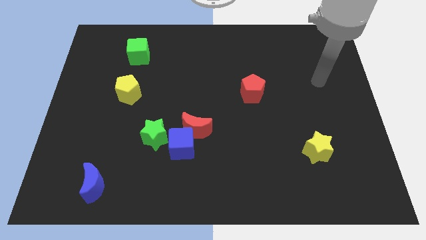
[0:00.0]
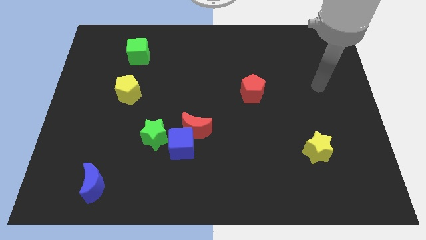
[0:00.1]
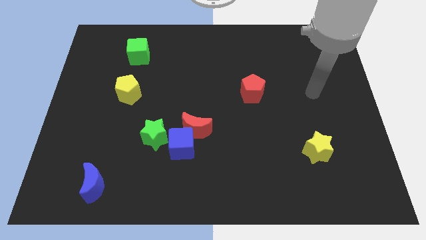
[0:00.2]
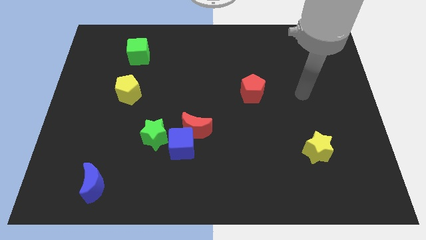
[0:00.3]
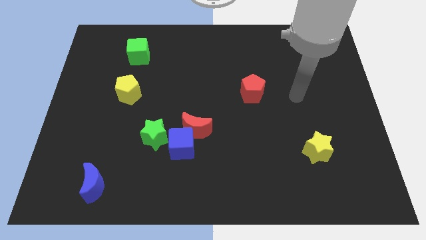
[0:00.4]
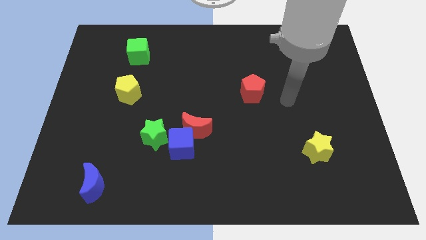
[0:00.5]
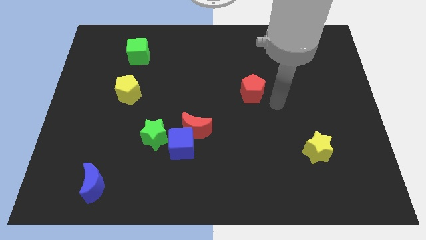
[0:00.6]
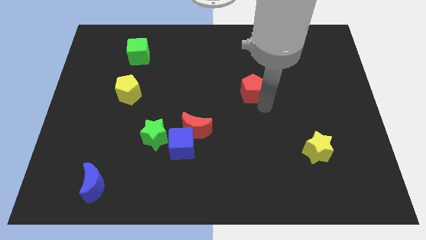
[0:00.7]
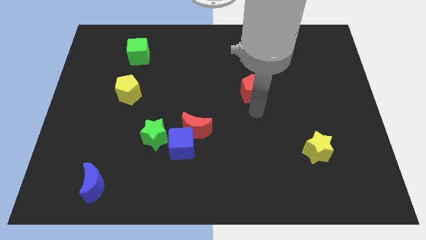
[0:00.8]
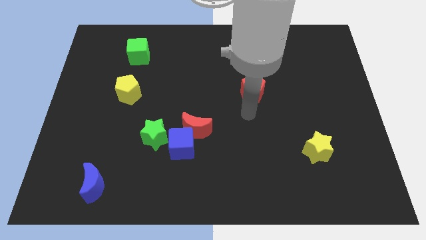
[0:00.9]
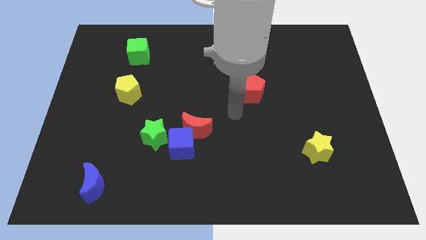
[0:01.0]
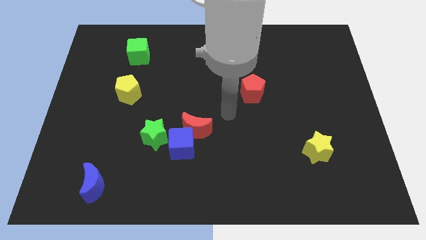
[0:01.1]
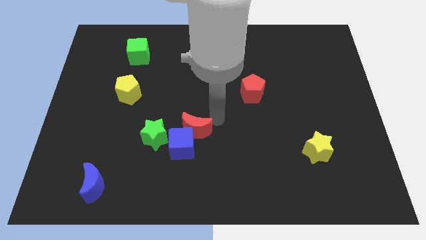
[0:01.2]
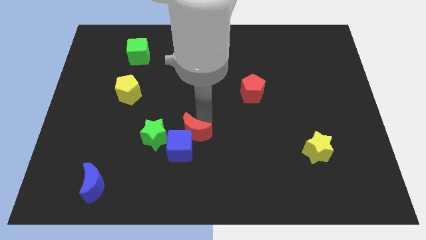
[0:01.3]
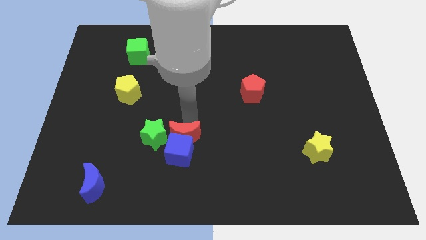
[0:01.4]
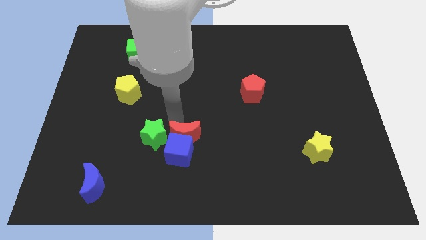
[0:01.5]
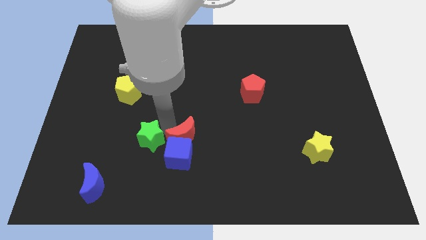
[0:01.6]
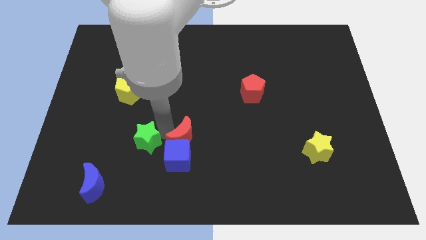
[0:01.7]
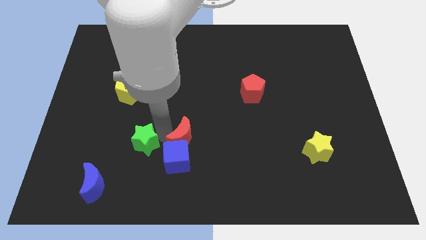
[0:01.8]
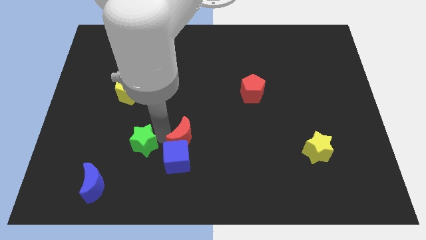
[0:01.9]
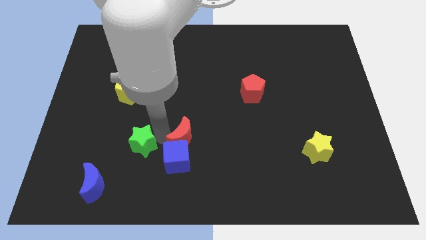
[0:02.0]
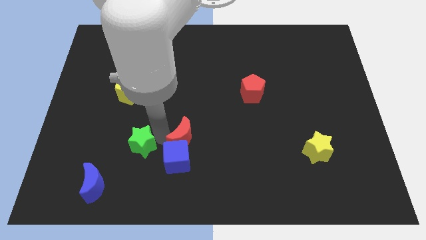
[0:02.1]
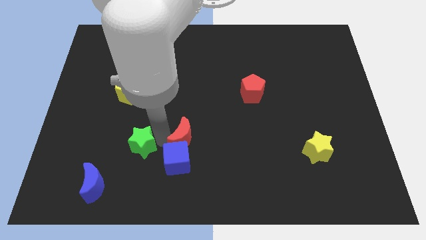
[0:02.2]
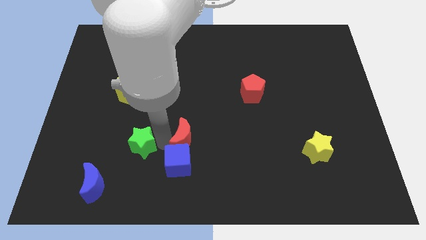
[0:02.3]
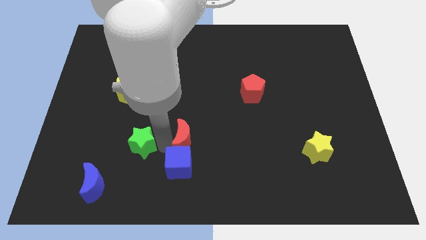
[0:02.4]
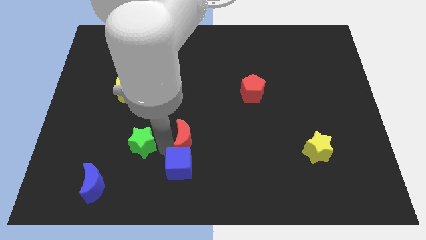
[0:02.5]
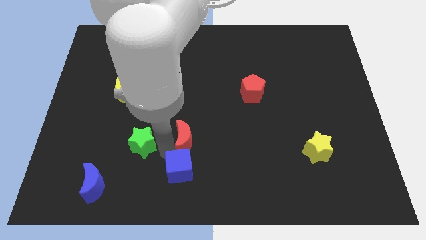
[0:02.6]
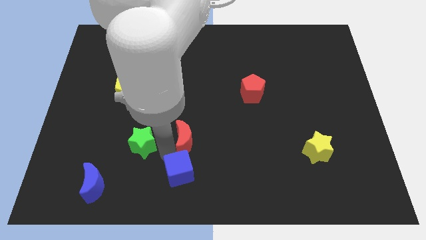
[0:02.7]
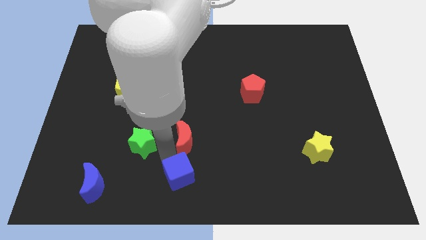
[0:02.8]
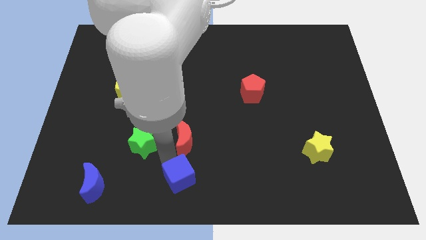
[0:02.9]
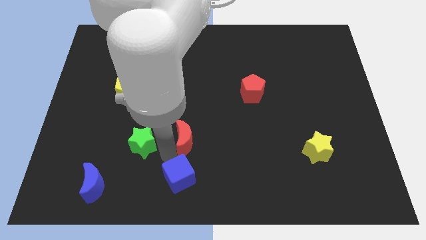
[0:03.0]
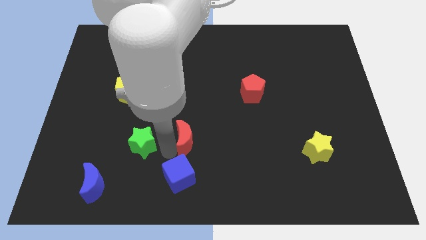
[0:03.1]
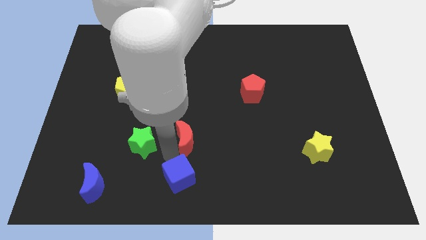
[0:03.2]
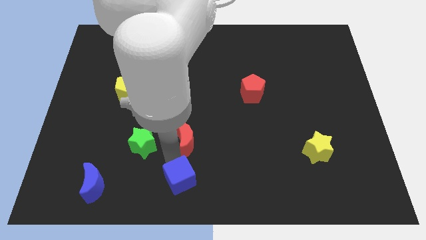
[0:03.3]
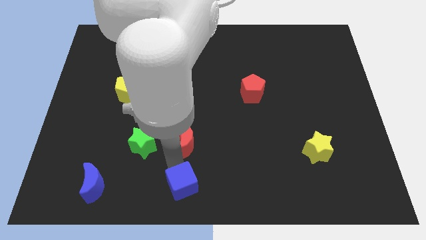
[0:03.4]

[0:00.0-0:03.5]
move the blue cube away from the red moon and green star

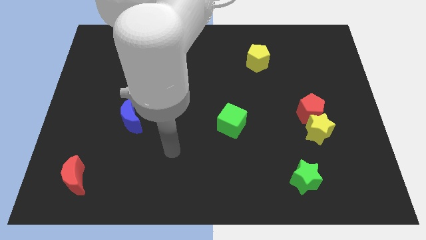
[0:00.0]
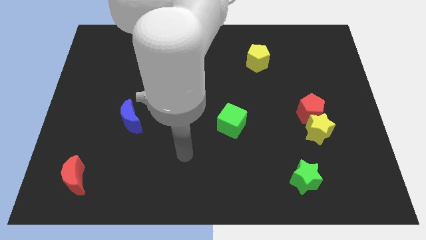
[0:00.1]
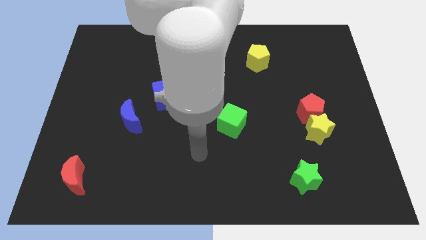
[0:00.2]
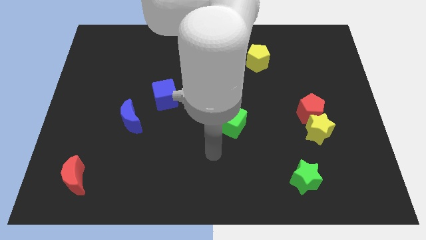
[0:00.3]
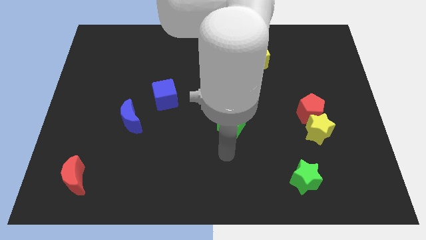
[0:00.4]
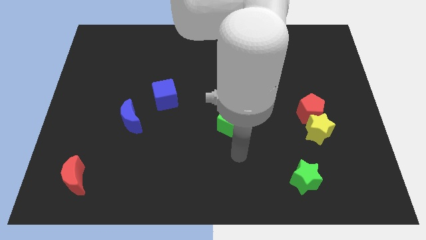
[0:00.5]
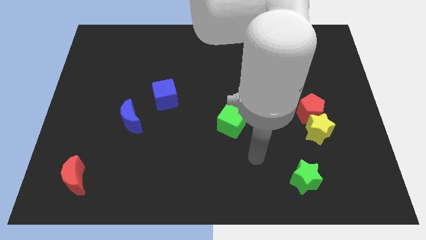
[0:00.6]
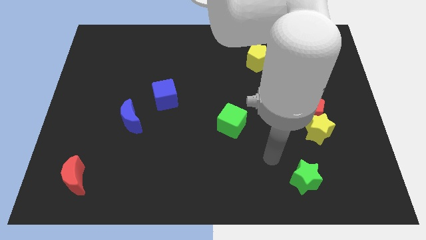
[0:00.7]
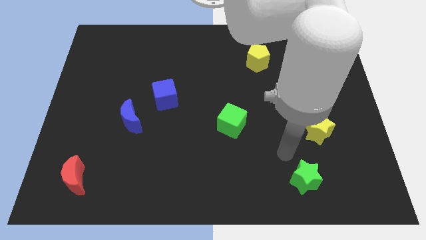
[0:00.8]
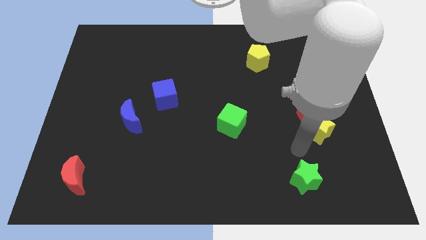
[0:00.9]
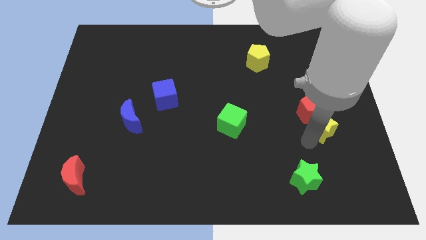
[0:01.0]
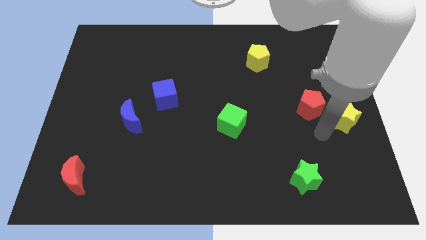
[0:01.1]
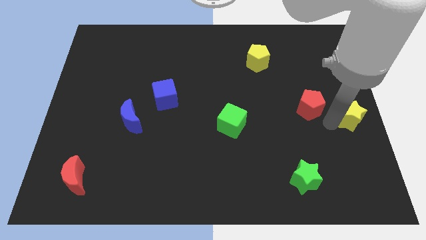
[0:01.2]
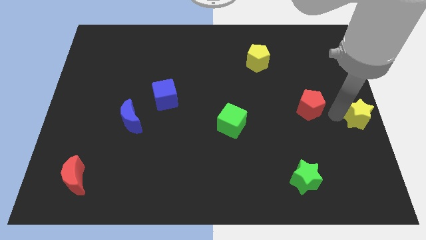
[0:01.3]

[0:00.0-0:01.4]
pull the red pentagon apart from the yellow star

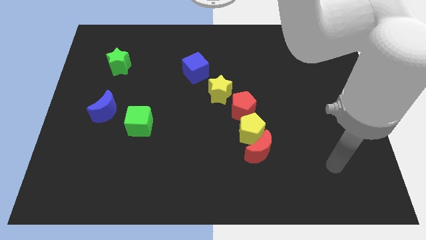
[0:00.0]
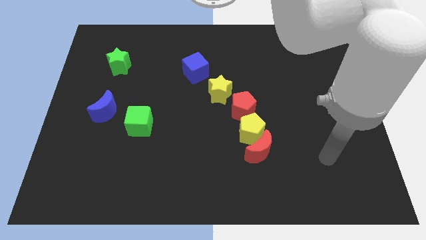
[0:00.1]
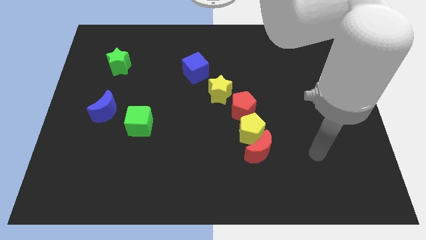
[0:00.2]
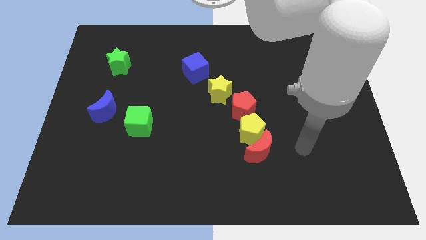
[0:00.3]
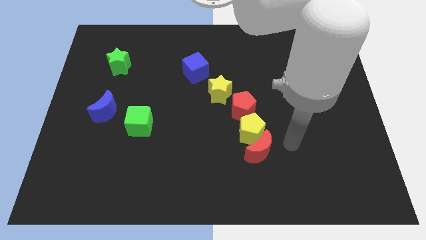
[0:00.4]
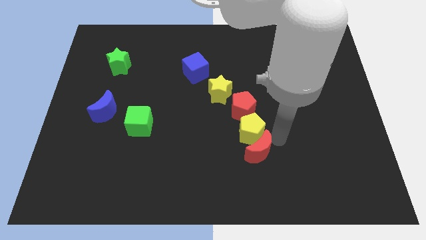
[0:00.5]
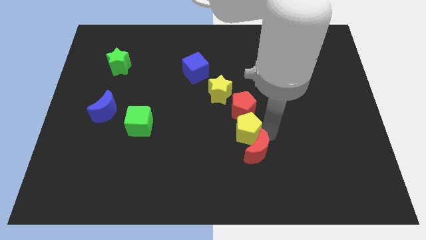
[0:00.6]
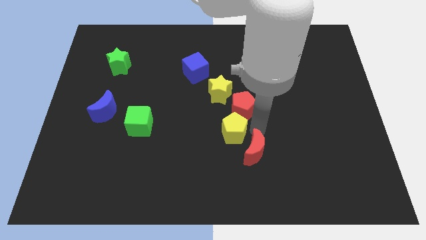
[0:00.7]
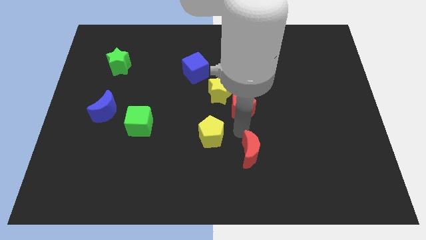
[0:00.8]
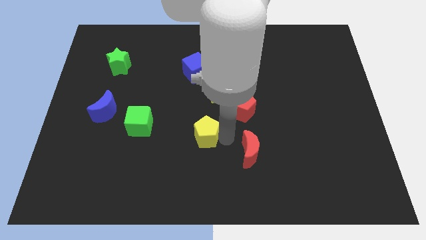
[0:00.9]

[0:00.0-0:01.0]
move the red moon away from the yellow pentagon

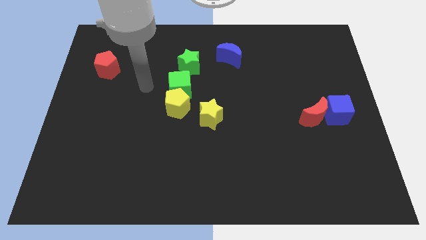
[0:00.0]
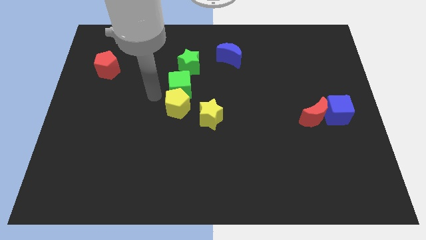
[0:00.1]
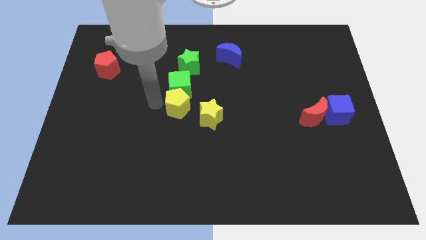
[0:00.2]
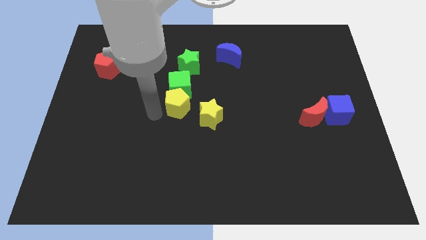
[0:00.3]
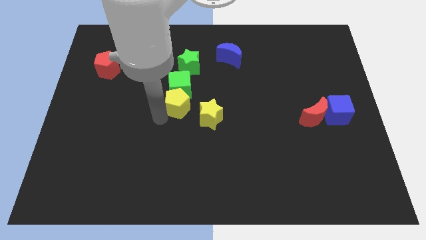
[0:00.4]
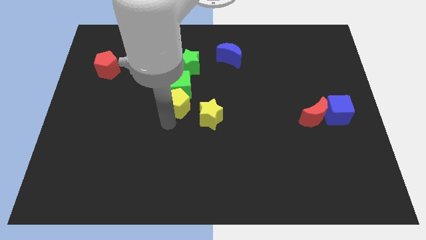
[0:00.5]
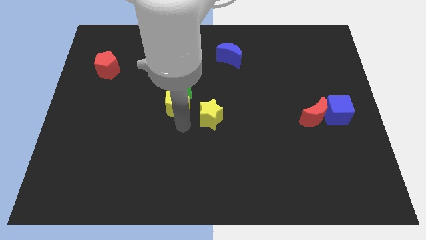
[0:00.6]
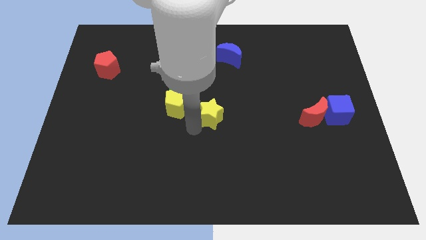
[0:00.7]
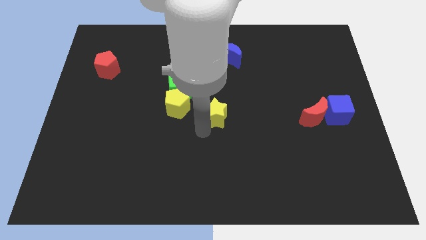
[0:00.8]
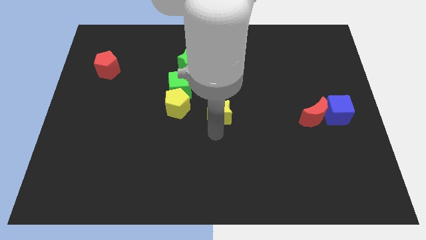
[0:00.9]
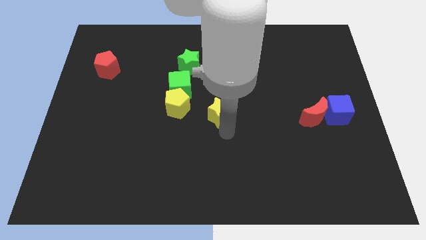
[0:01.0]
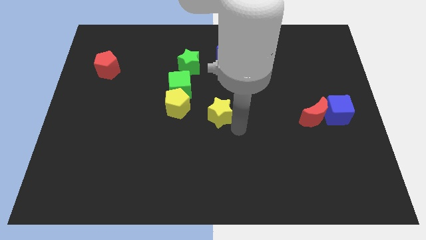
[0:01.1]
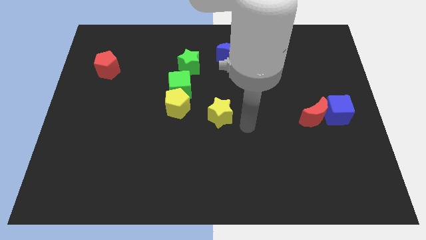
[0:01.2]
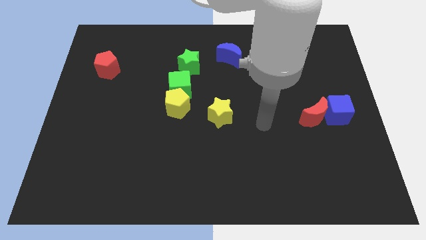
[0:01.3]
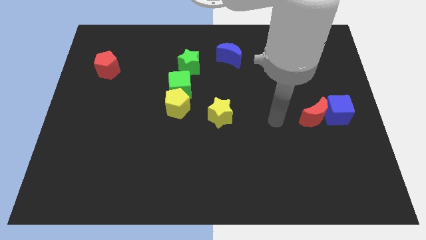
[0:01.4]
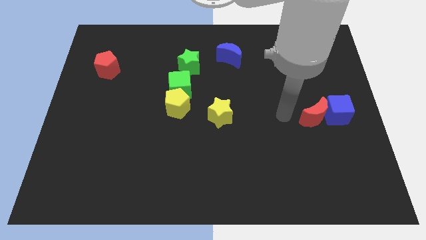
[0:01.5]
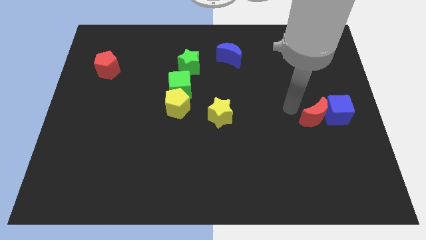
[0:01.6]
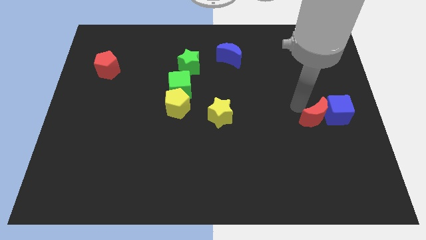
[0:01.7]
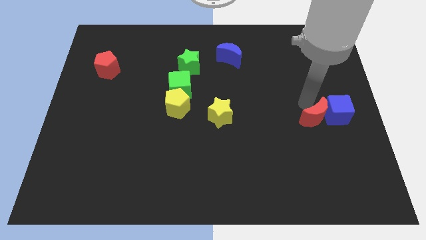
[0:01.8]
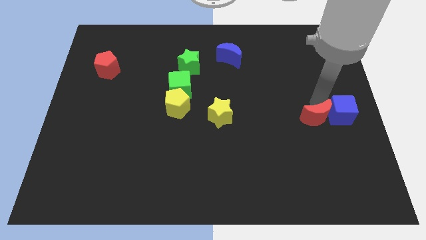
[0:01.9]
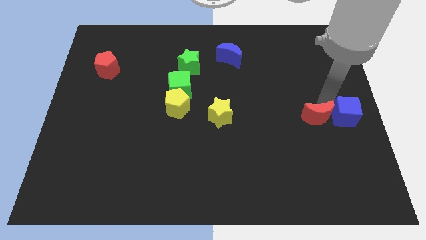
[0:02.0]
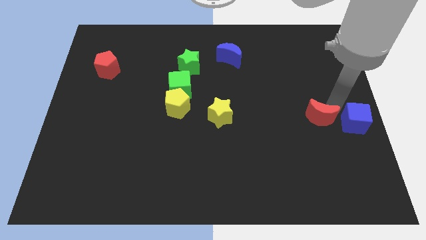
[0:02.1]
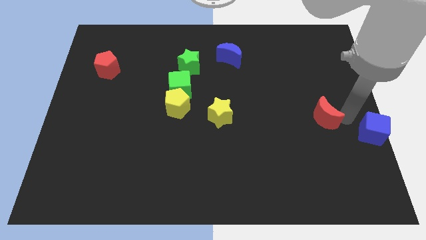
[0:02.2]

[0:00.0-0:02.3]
separate the red moon from the blue cube

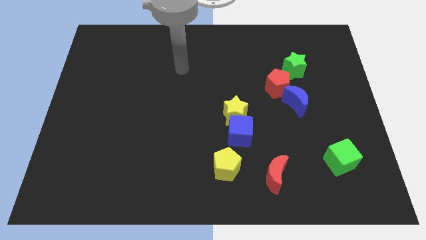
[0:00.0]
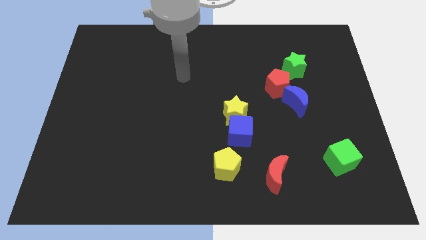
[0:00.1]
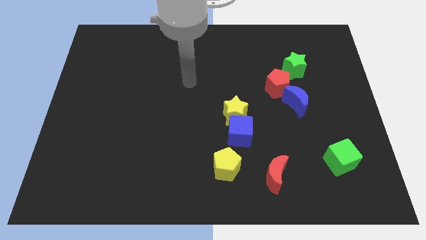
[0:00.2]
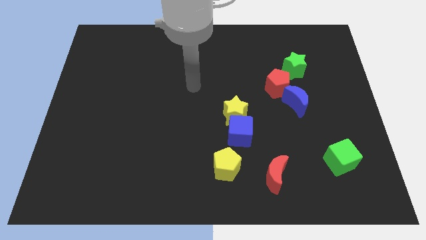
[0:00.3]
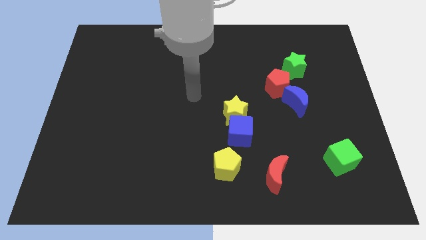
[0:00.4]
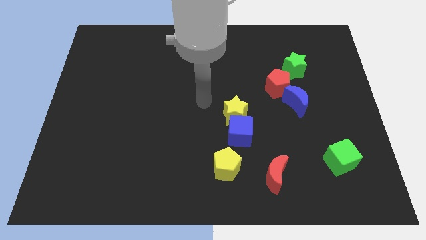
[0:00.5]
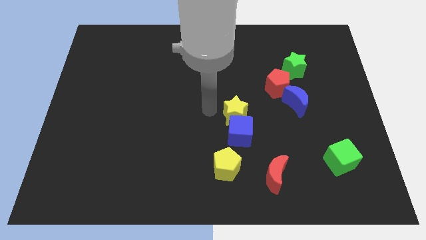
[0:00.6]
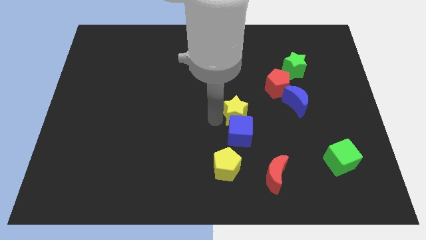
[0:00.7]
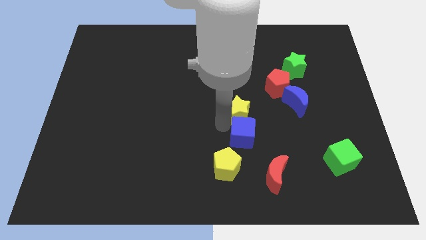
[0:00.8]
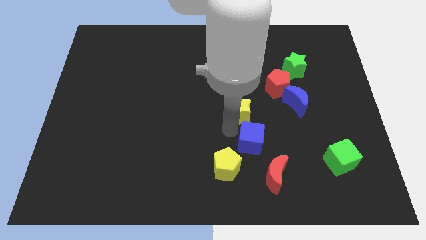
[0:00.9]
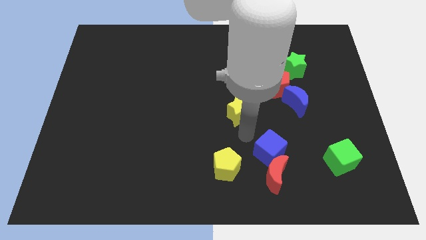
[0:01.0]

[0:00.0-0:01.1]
move the yellow star away from the blue cube
